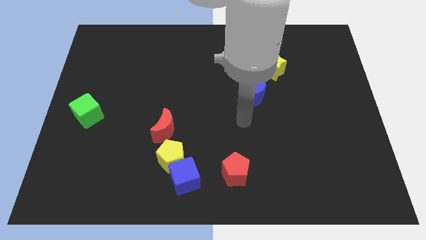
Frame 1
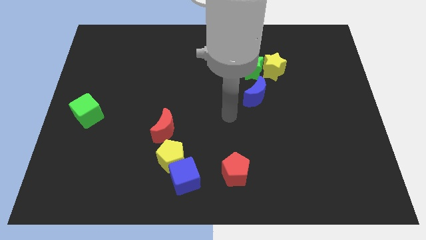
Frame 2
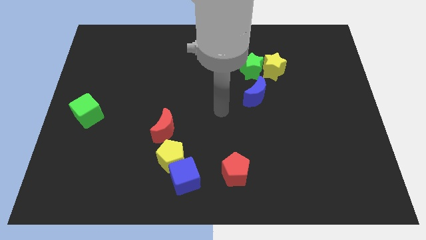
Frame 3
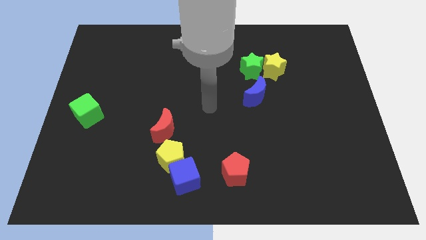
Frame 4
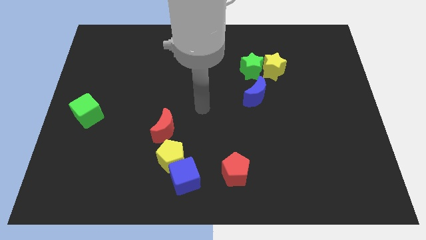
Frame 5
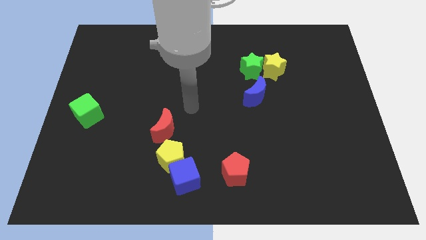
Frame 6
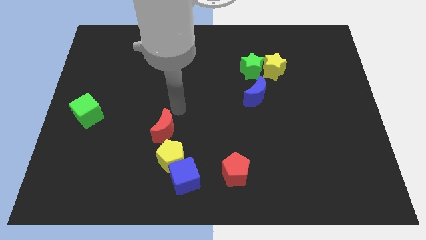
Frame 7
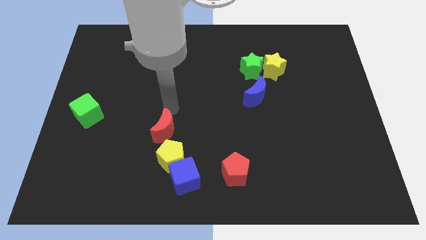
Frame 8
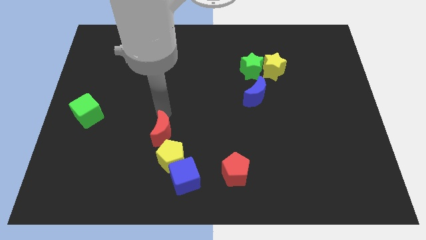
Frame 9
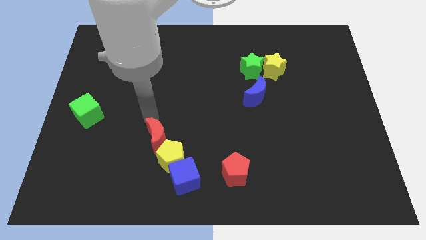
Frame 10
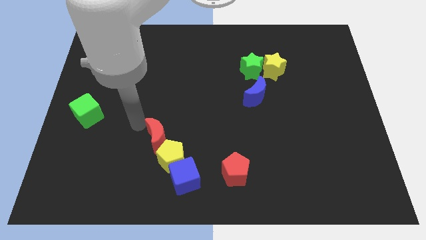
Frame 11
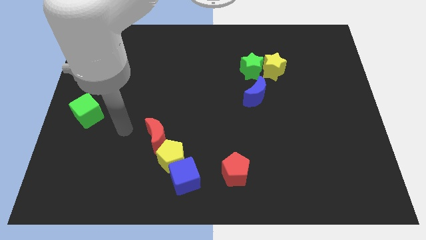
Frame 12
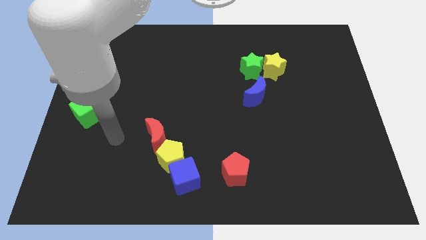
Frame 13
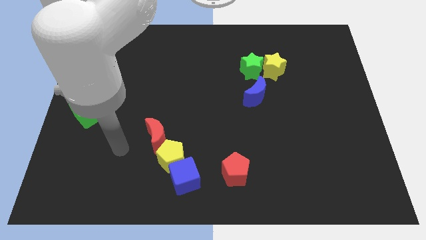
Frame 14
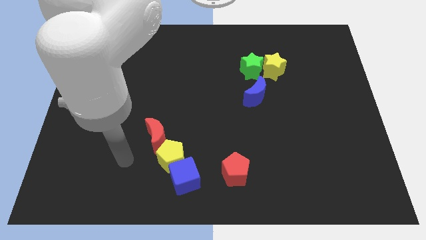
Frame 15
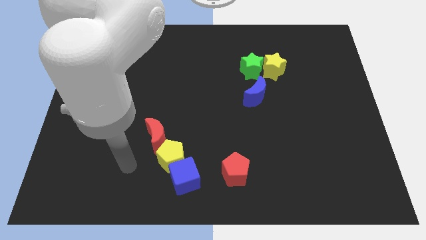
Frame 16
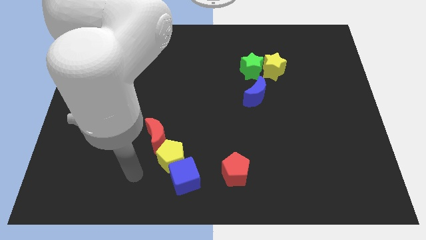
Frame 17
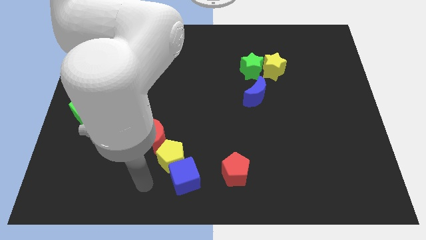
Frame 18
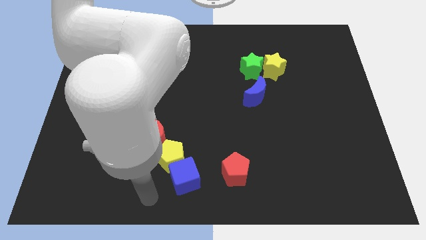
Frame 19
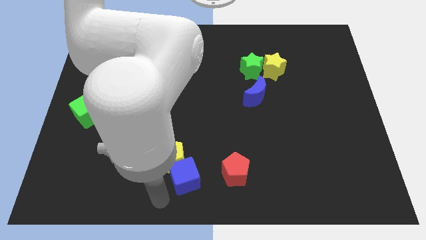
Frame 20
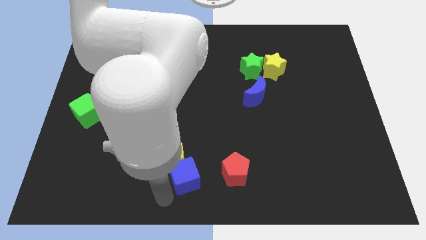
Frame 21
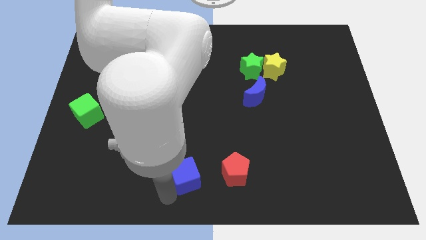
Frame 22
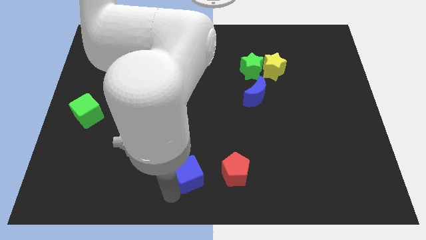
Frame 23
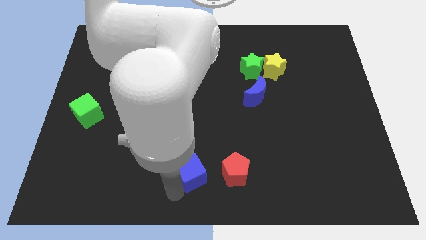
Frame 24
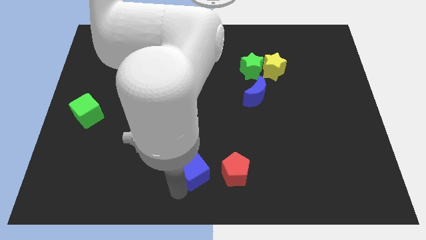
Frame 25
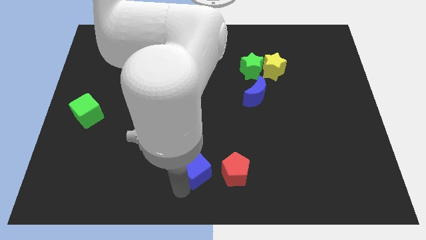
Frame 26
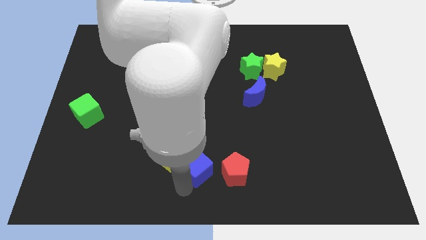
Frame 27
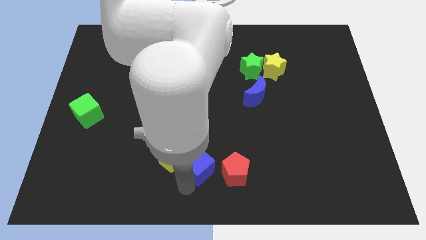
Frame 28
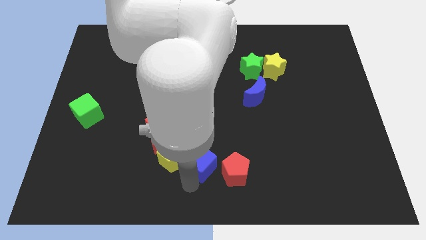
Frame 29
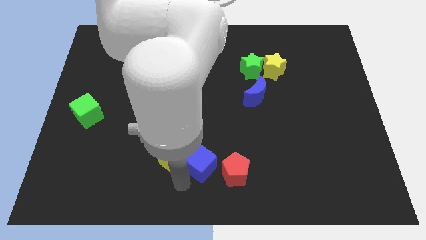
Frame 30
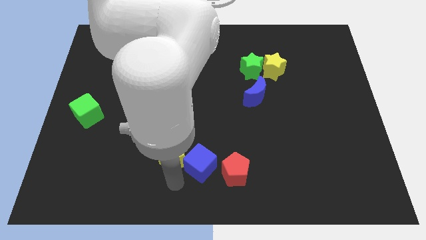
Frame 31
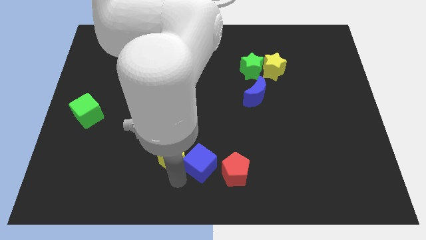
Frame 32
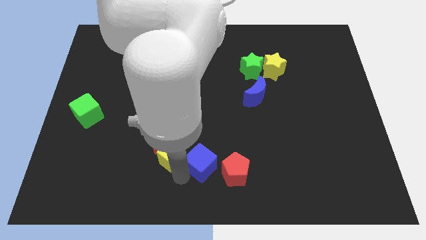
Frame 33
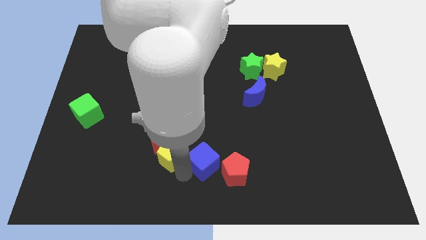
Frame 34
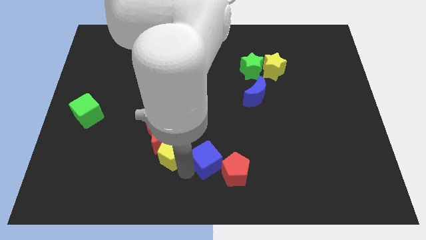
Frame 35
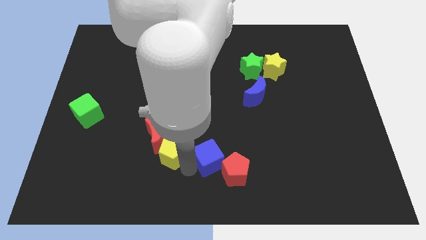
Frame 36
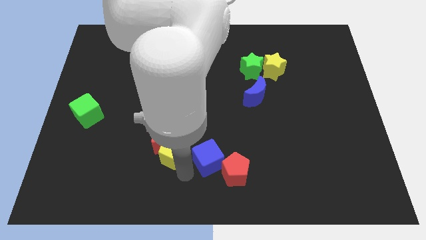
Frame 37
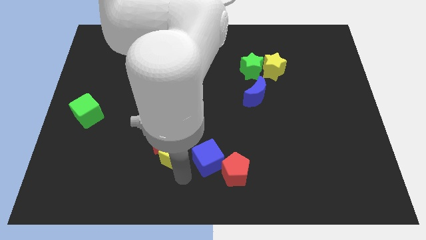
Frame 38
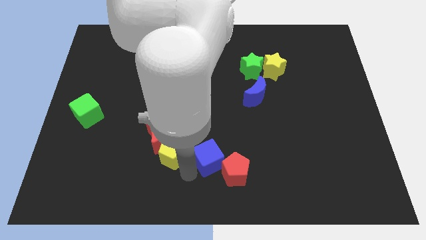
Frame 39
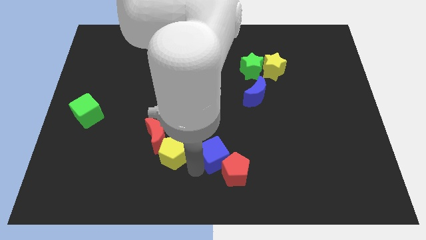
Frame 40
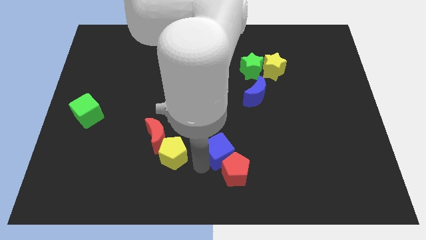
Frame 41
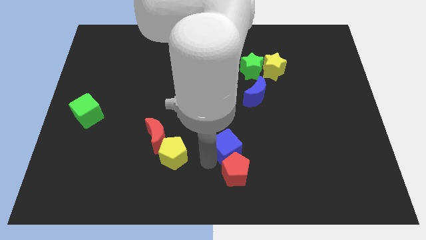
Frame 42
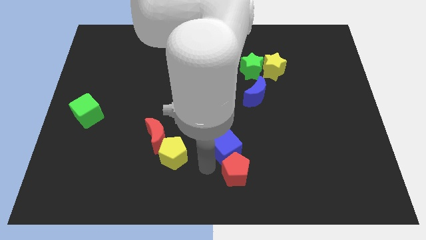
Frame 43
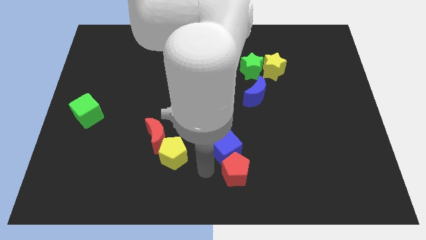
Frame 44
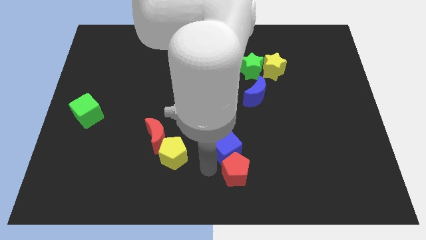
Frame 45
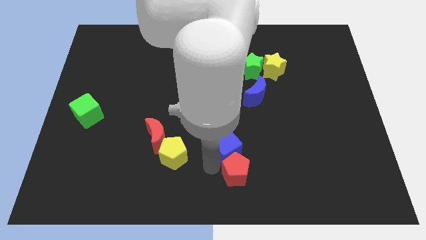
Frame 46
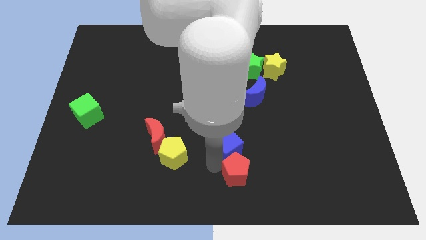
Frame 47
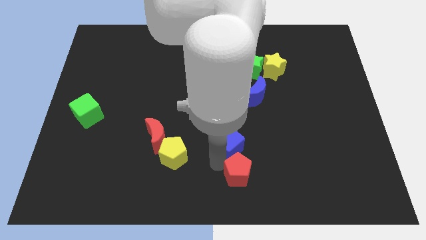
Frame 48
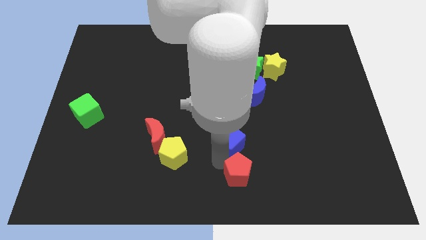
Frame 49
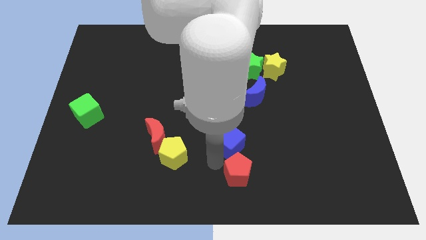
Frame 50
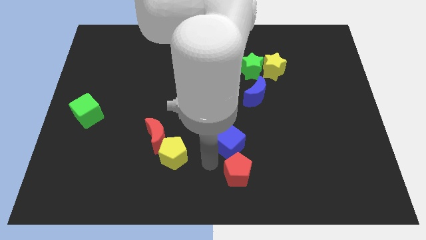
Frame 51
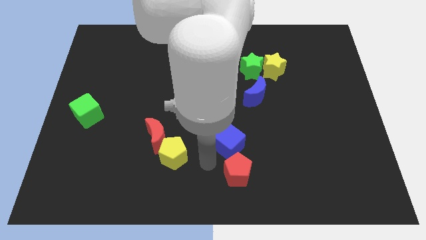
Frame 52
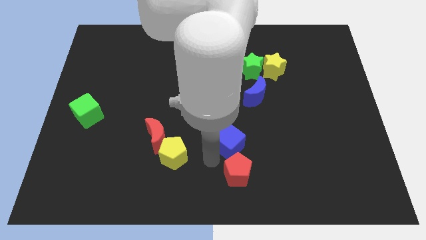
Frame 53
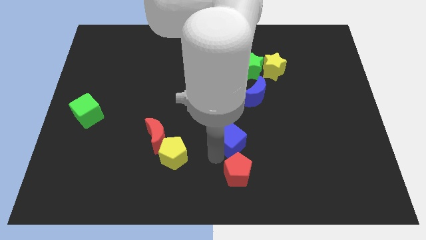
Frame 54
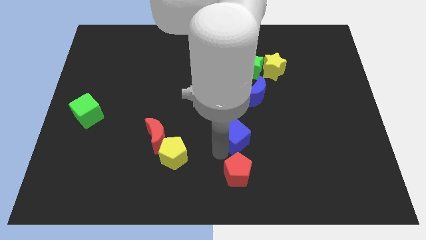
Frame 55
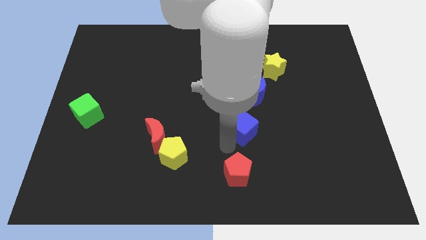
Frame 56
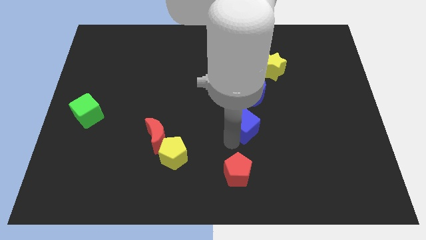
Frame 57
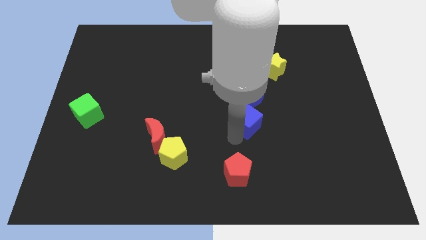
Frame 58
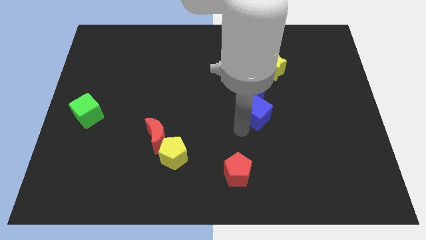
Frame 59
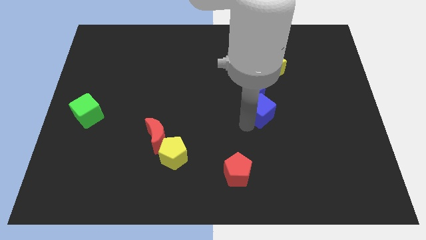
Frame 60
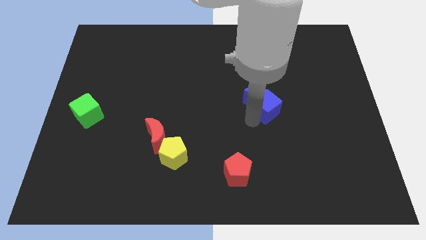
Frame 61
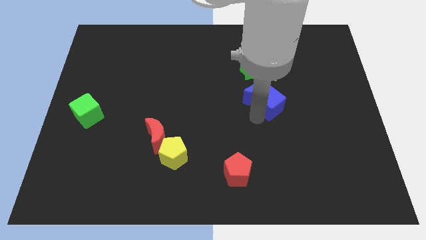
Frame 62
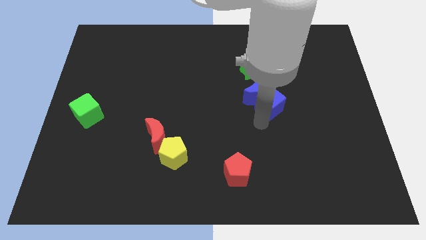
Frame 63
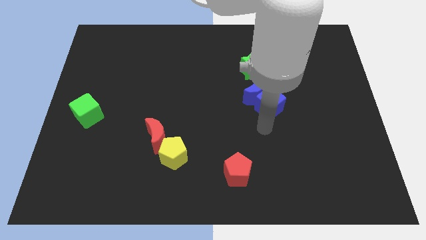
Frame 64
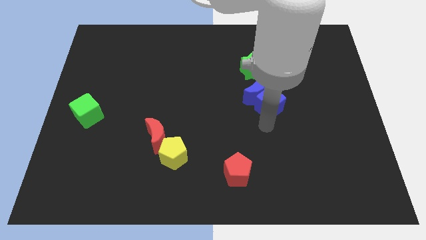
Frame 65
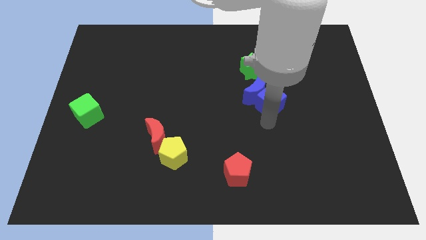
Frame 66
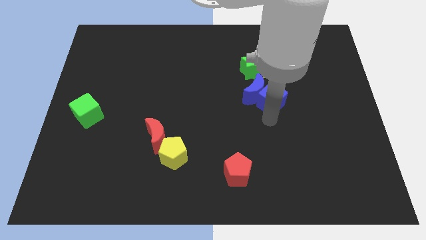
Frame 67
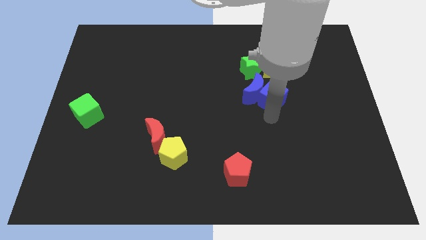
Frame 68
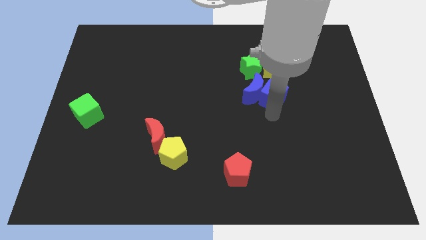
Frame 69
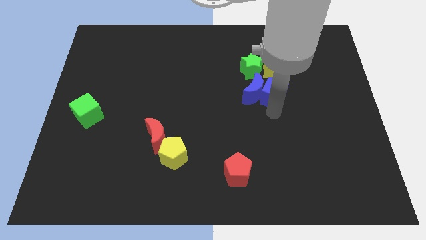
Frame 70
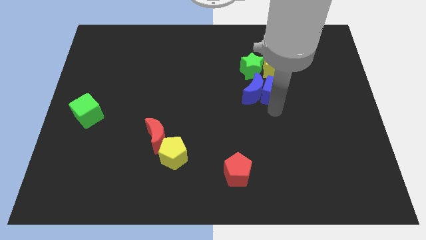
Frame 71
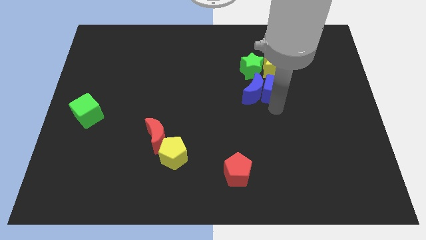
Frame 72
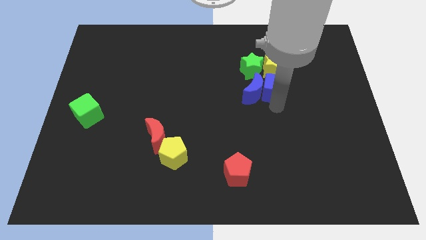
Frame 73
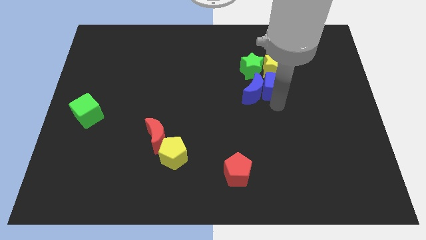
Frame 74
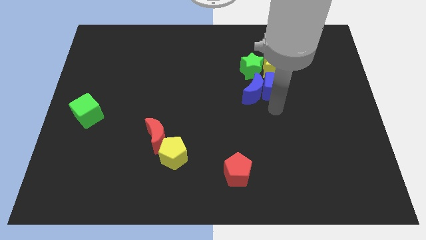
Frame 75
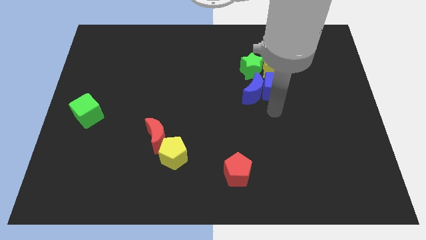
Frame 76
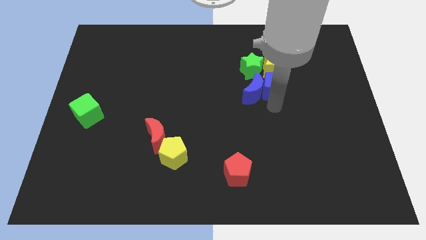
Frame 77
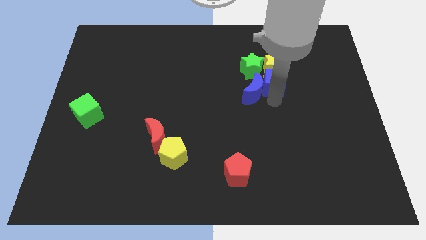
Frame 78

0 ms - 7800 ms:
put the blue cube towards the yellow star

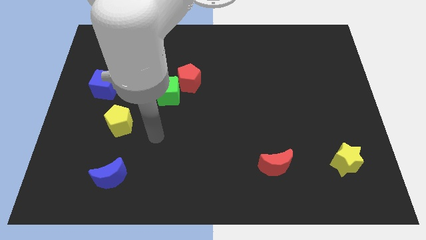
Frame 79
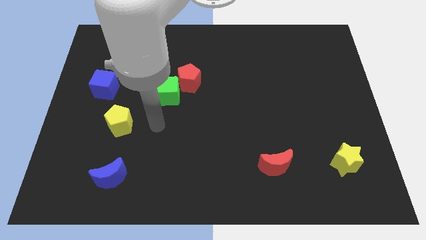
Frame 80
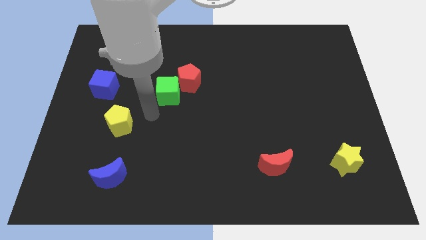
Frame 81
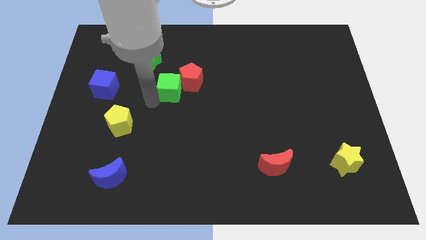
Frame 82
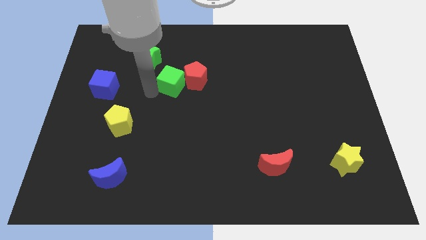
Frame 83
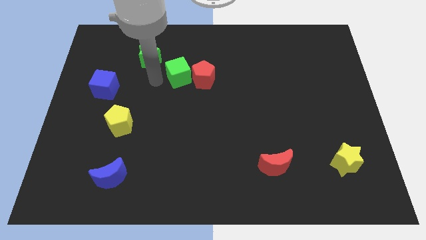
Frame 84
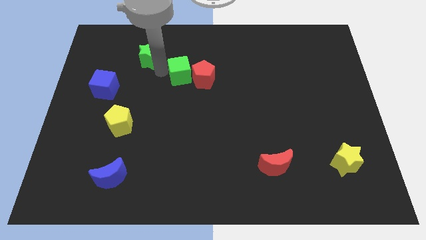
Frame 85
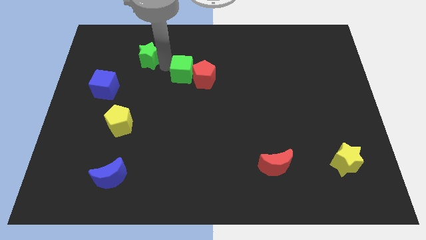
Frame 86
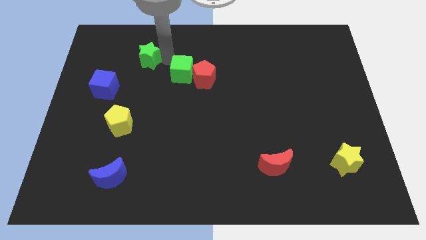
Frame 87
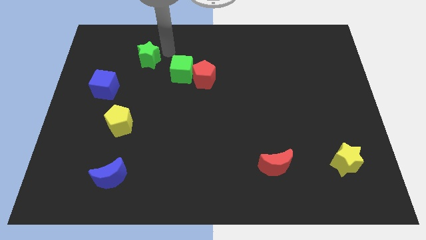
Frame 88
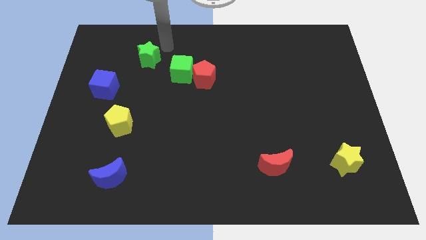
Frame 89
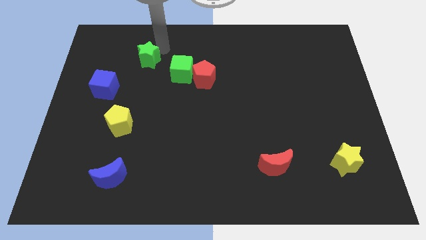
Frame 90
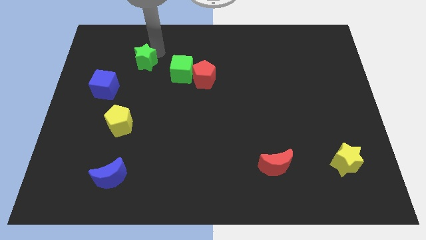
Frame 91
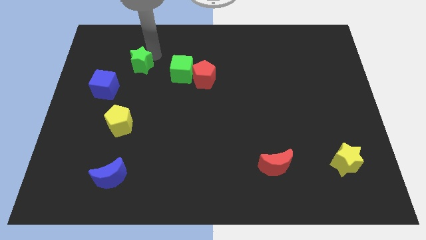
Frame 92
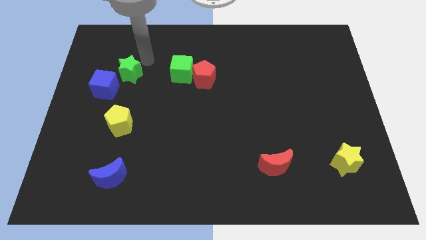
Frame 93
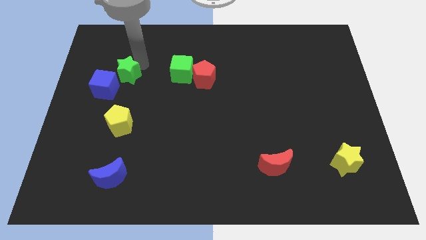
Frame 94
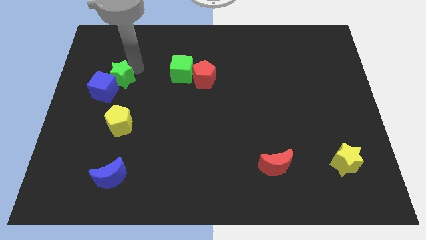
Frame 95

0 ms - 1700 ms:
move the green star close to the blue cube
